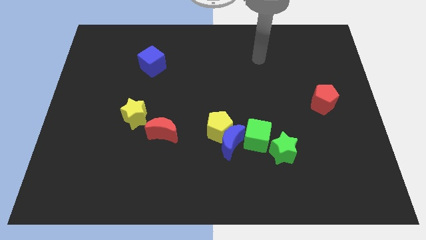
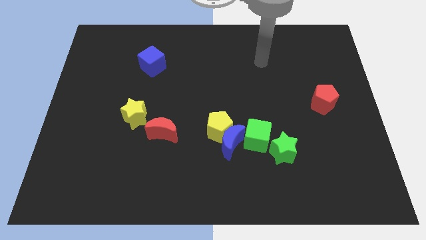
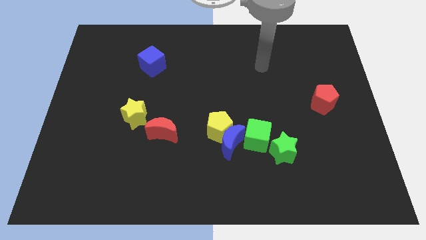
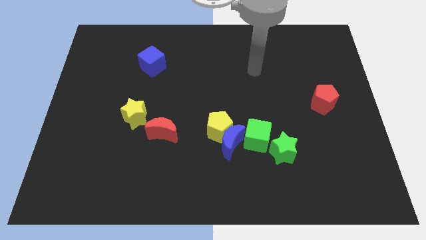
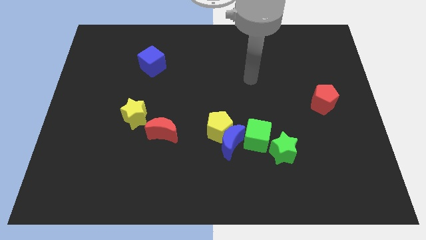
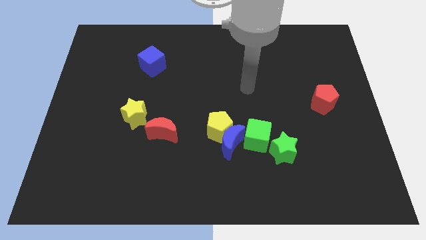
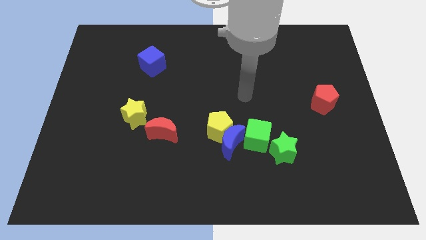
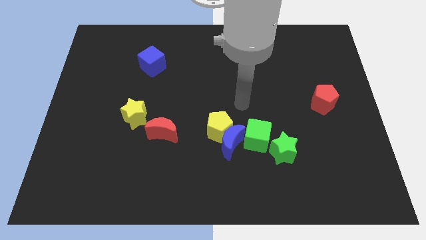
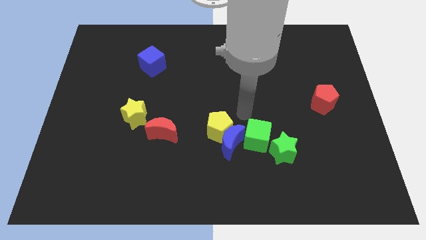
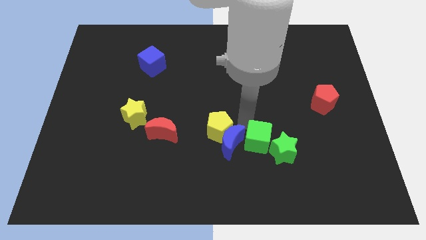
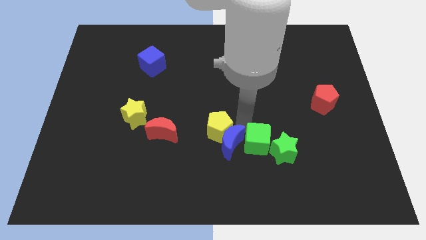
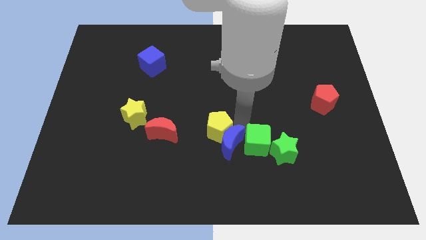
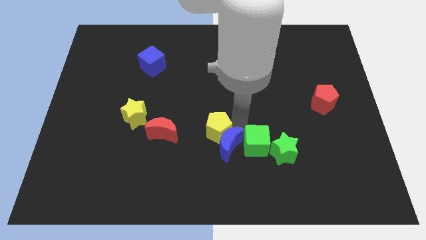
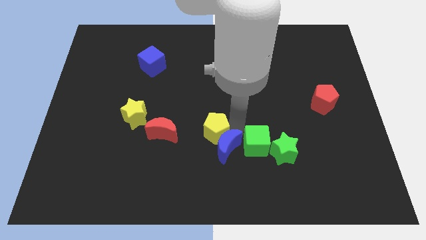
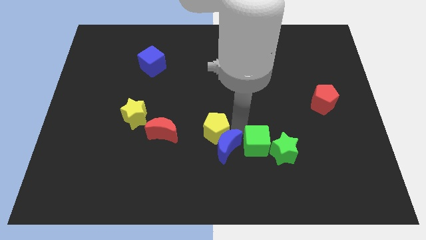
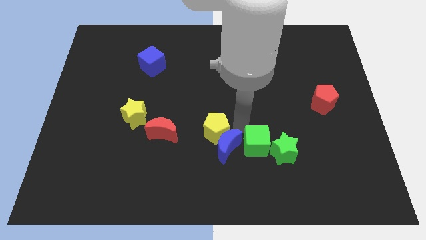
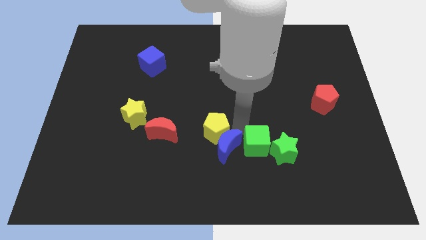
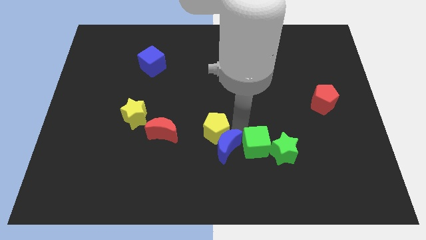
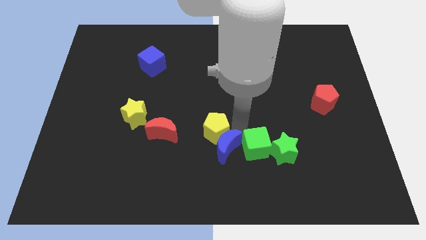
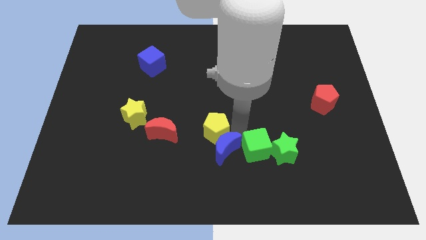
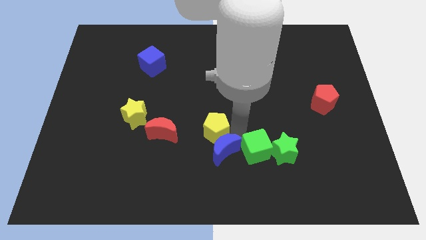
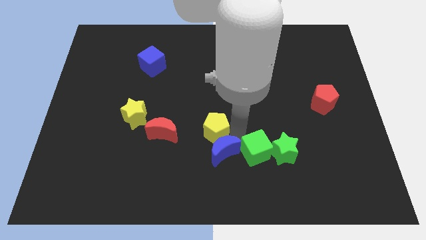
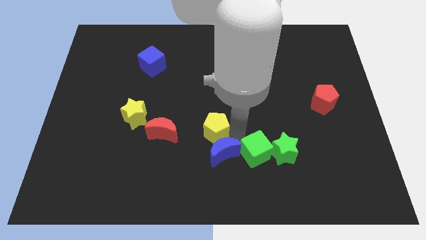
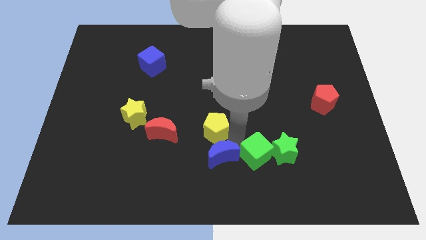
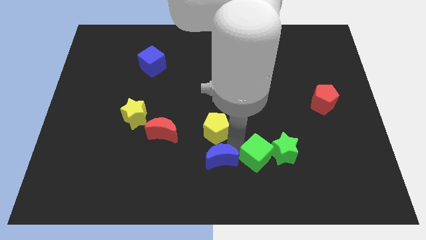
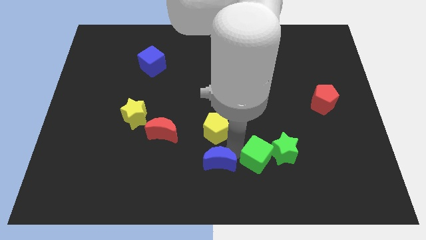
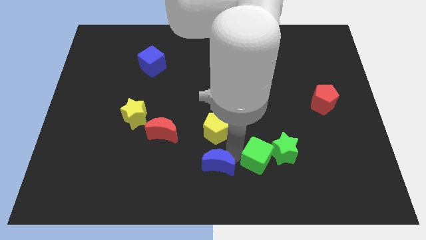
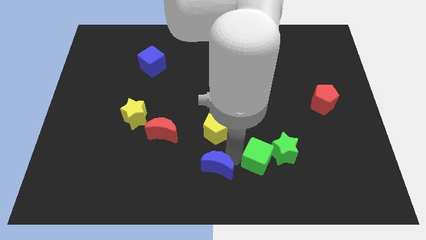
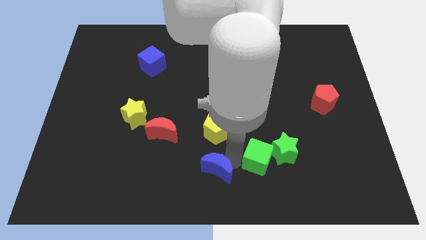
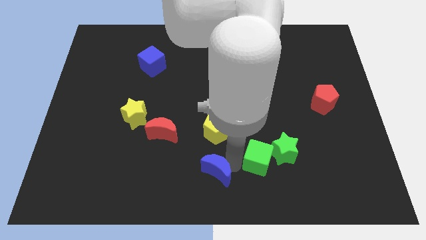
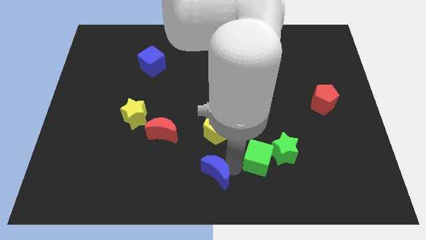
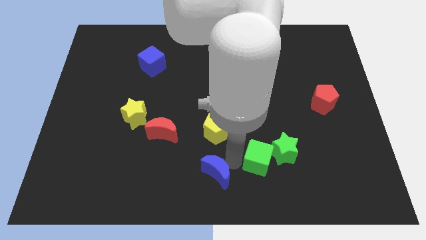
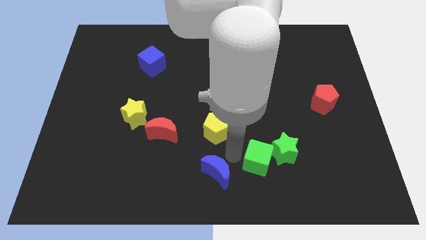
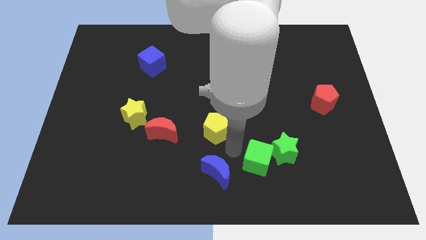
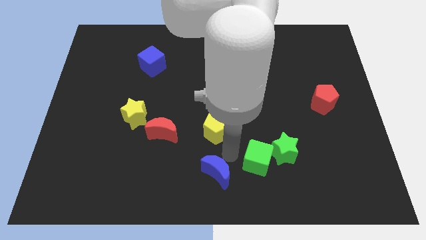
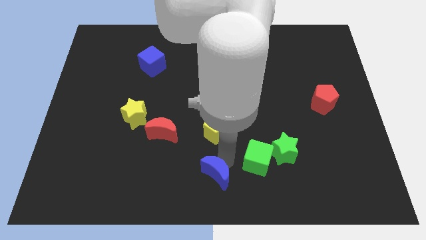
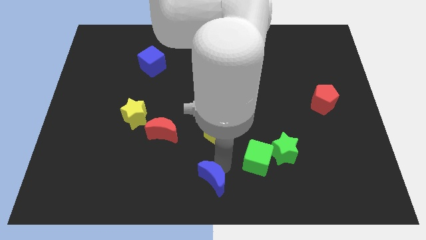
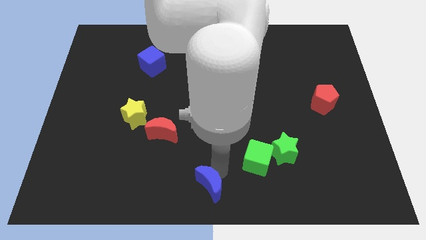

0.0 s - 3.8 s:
pull the blue moon apart from the yellow pentagon and green cube

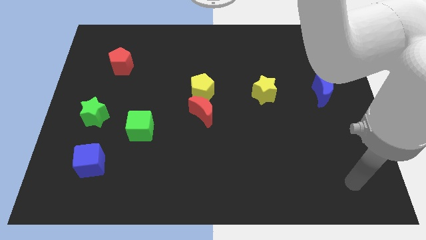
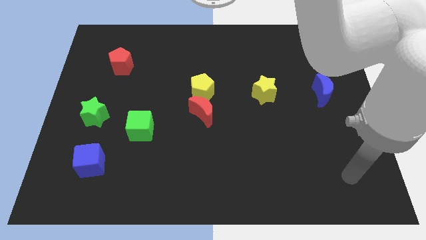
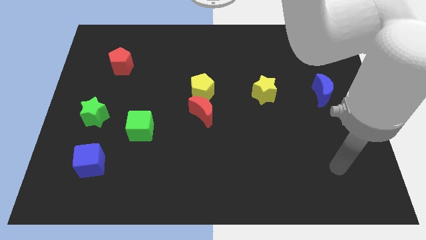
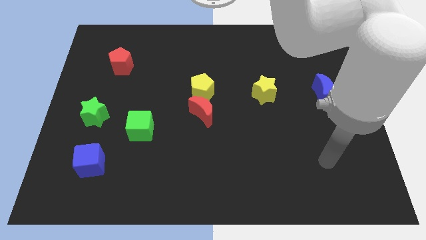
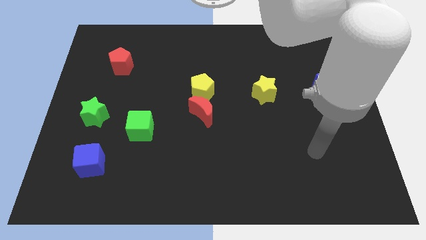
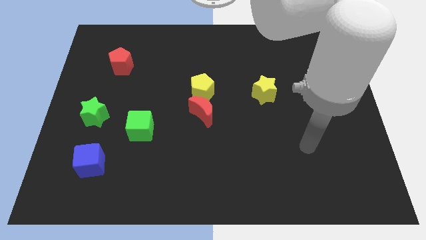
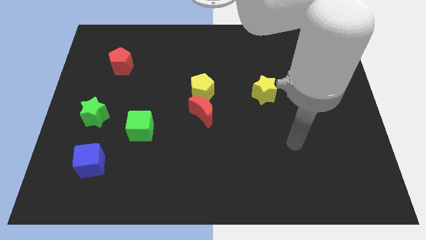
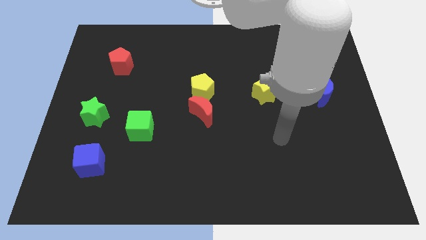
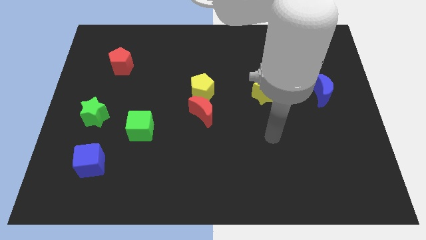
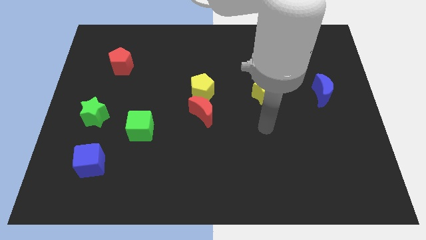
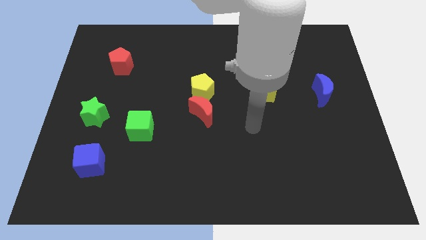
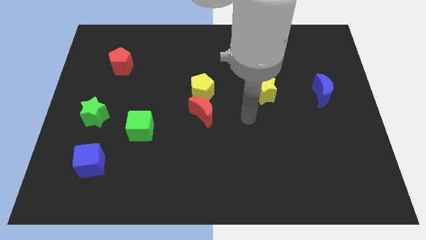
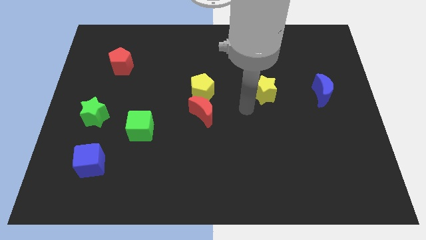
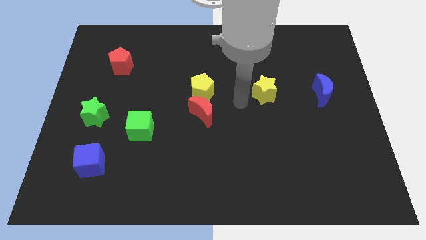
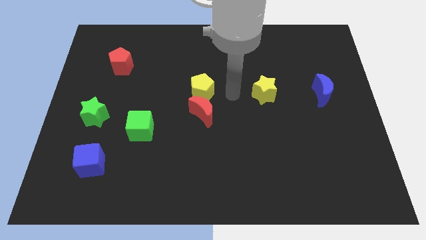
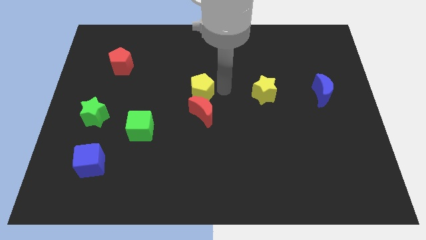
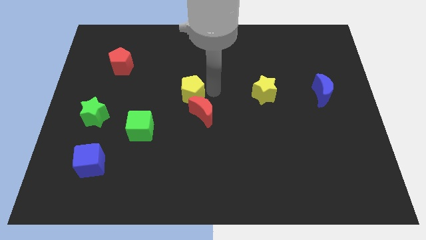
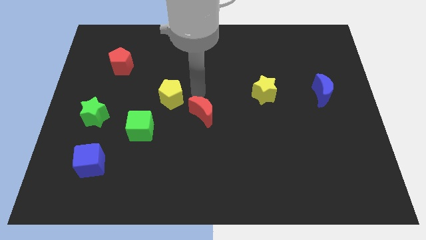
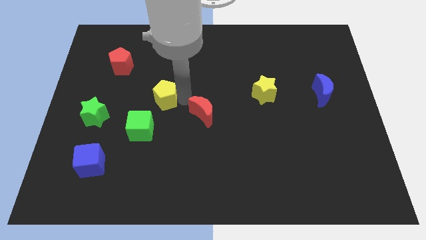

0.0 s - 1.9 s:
separate the red moon from the yellow pentagon

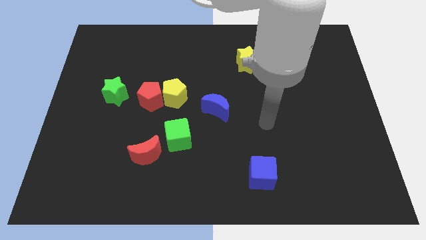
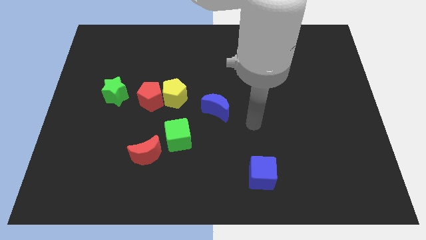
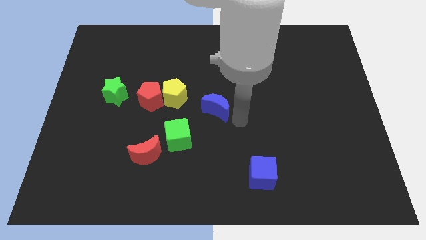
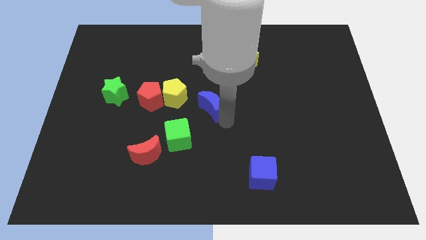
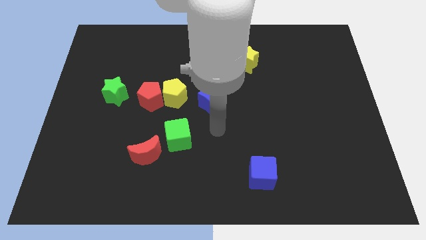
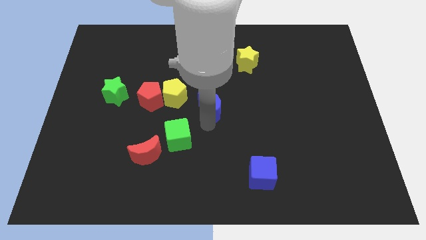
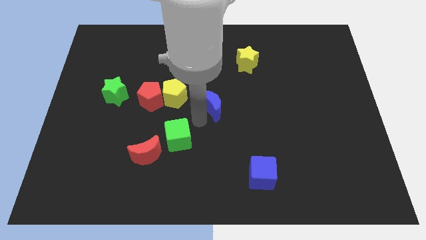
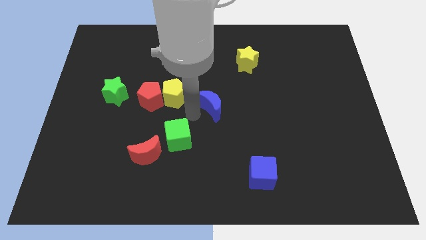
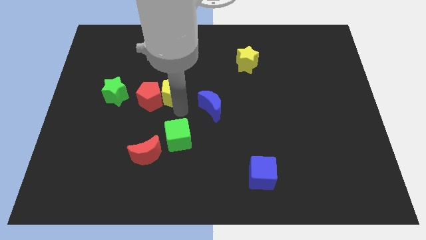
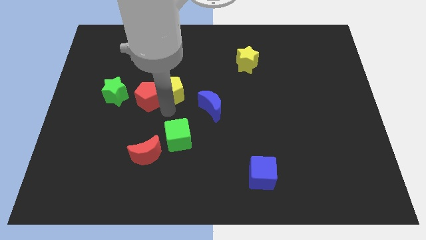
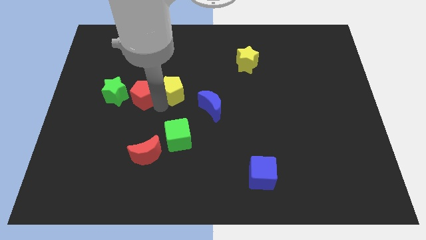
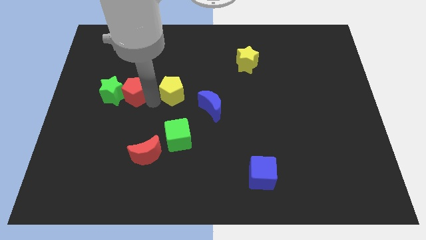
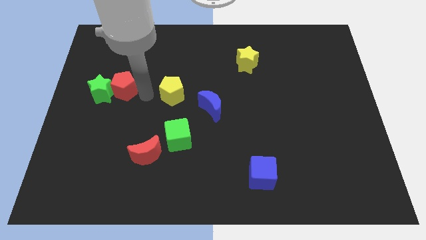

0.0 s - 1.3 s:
move the yellow pentagon away from the red pentagon

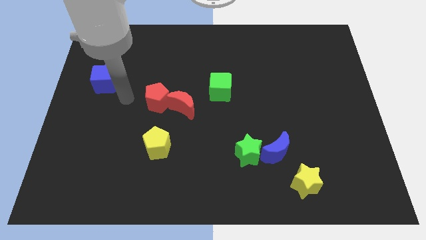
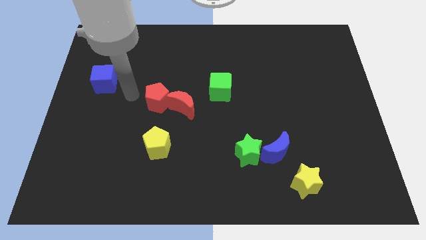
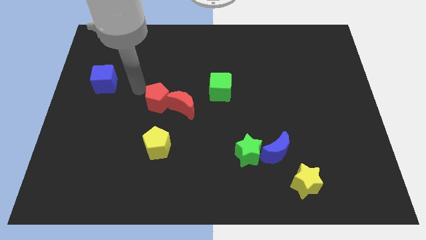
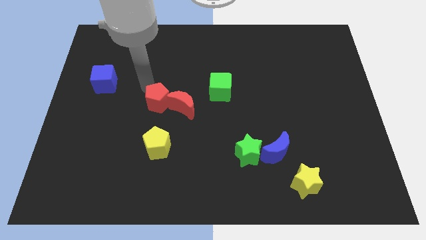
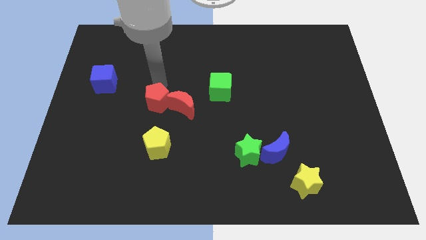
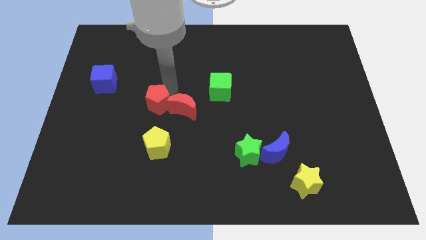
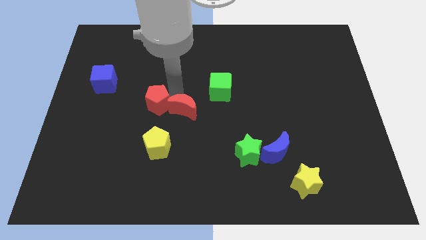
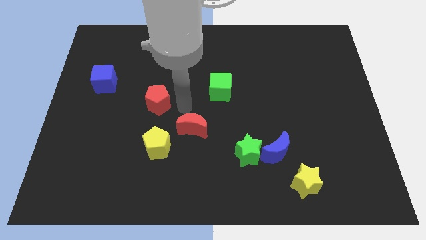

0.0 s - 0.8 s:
separate the red pentagon from the red moon

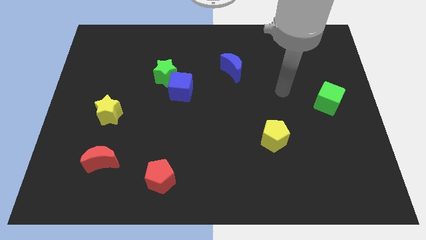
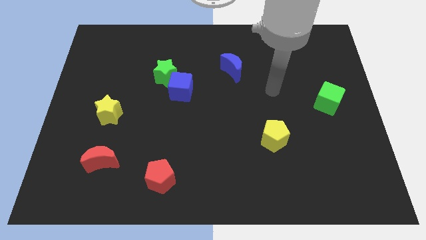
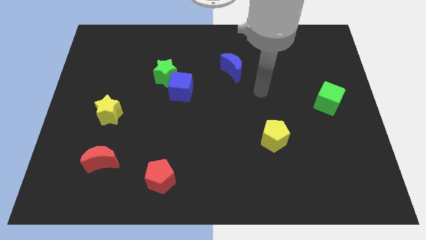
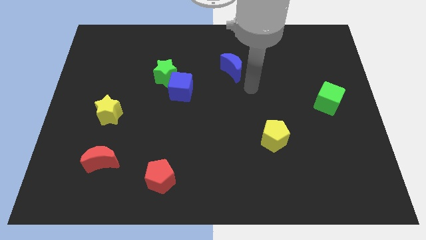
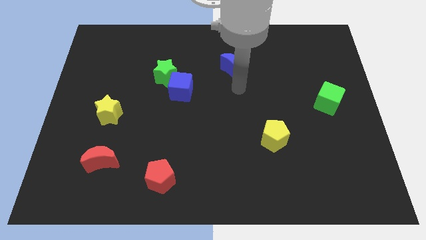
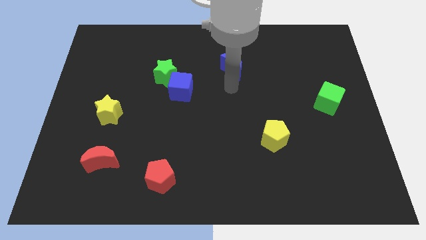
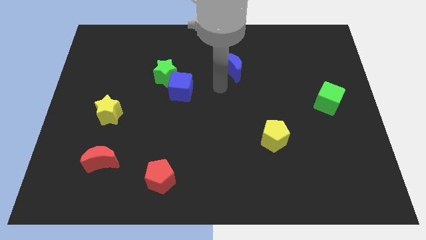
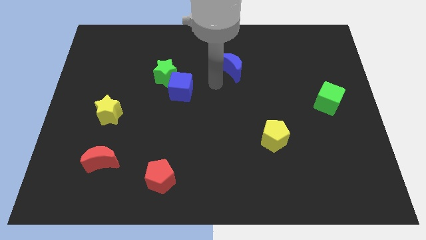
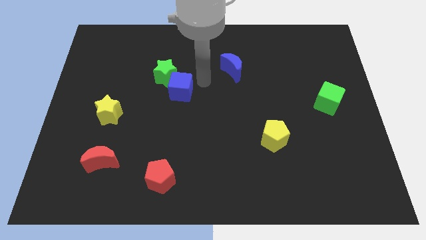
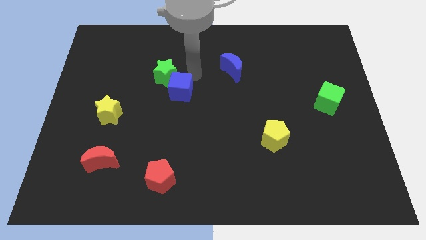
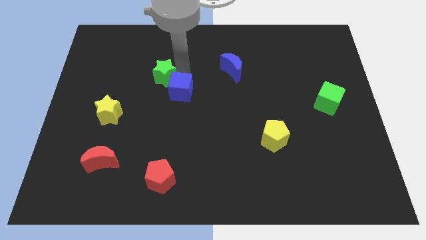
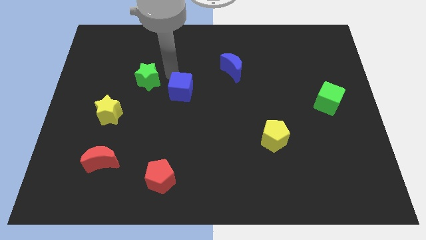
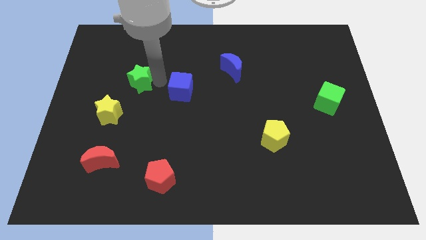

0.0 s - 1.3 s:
pull the blue cube apart from the green star
